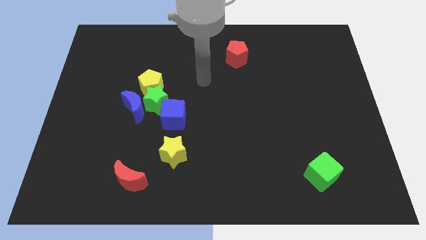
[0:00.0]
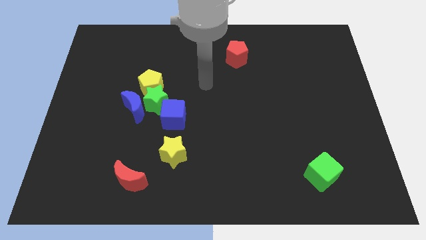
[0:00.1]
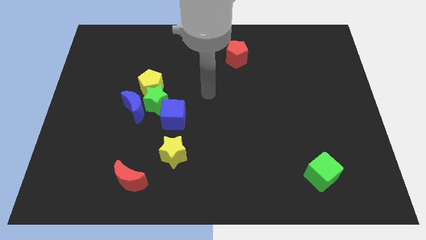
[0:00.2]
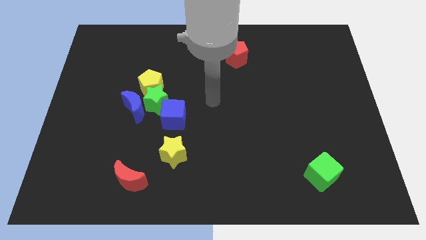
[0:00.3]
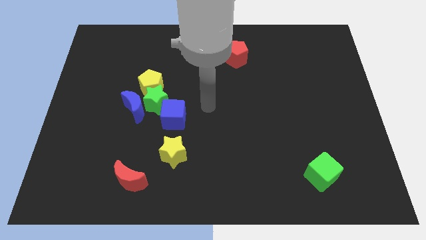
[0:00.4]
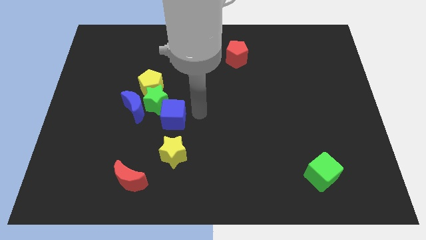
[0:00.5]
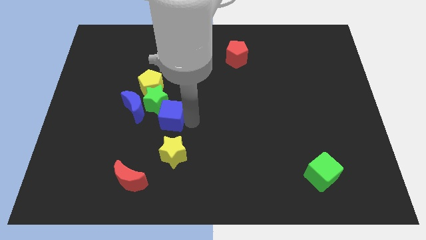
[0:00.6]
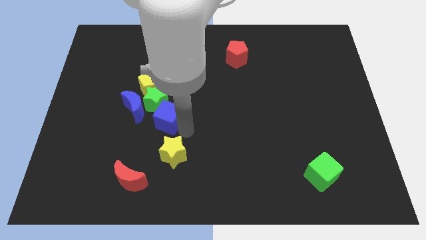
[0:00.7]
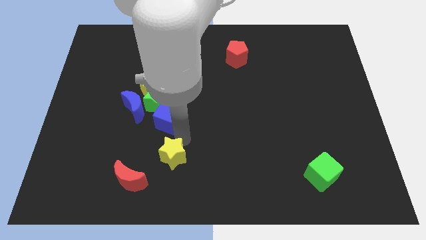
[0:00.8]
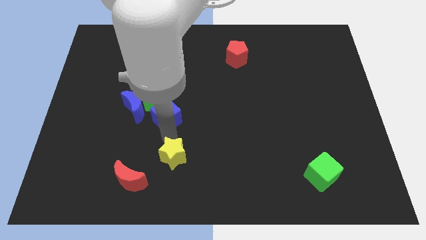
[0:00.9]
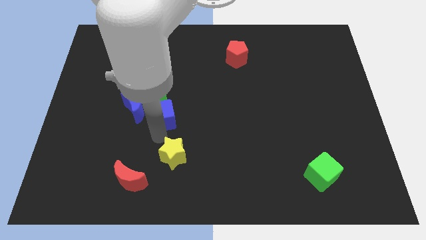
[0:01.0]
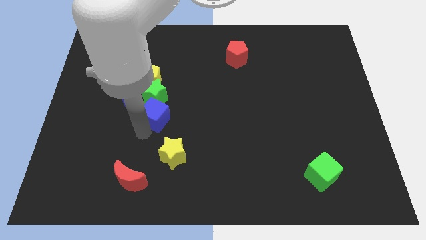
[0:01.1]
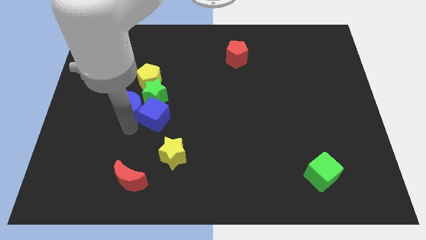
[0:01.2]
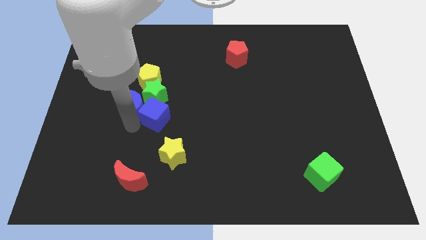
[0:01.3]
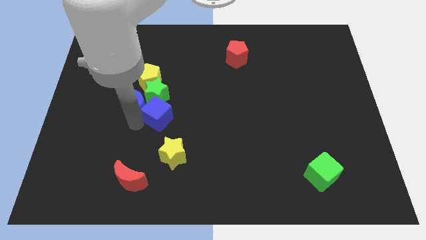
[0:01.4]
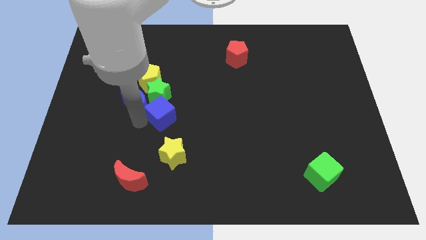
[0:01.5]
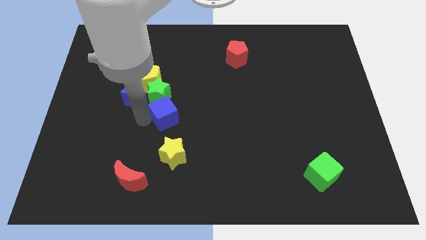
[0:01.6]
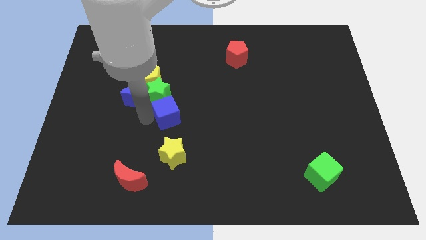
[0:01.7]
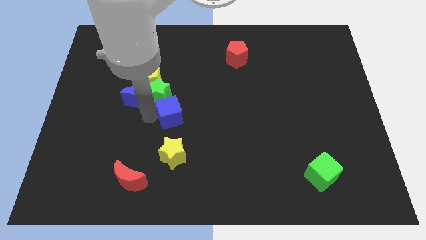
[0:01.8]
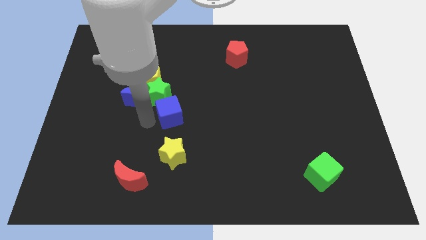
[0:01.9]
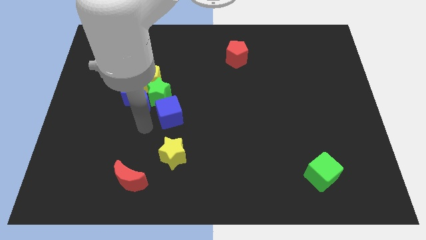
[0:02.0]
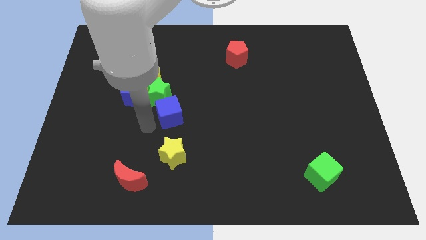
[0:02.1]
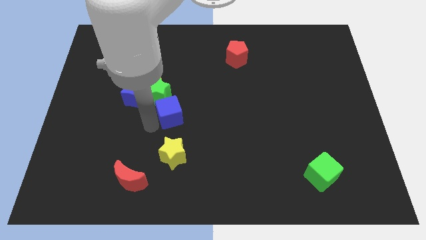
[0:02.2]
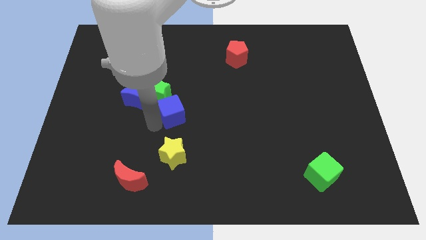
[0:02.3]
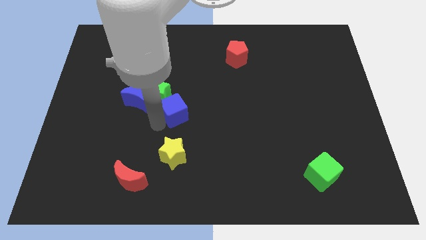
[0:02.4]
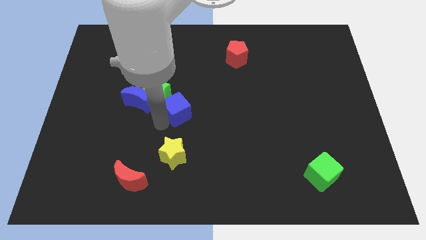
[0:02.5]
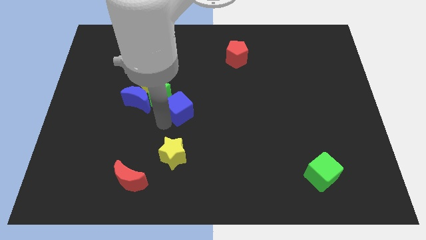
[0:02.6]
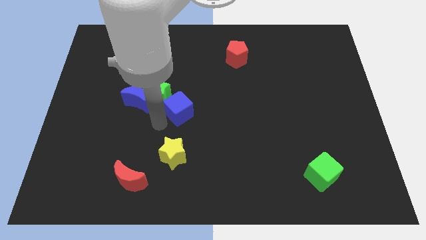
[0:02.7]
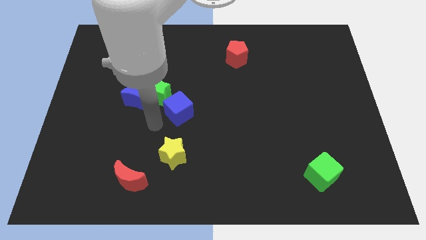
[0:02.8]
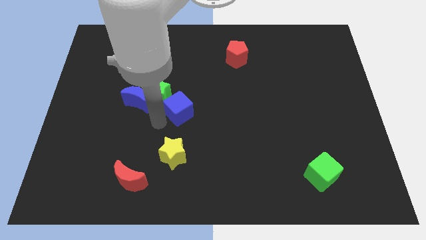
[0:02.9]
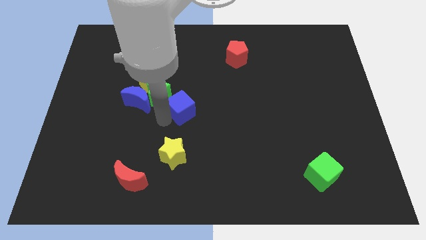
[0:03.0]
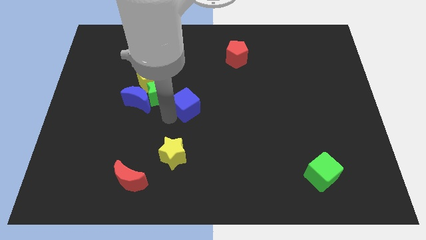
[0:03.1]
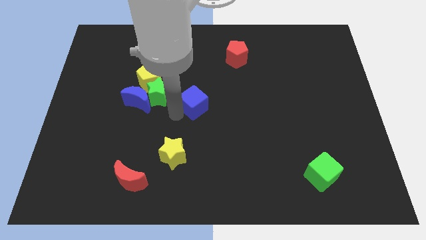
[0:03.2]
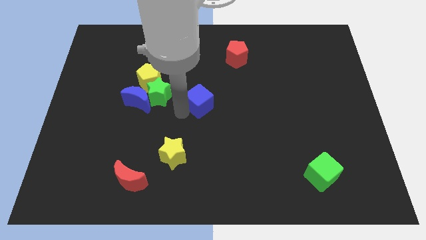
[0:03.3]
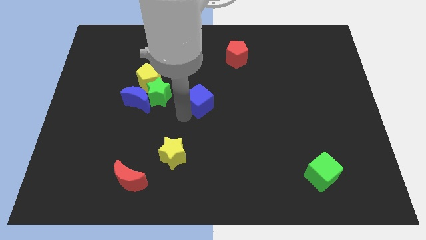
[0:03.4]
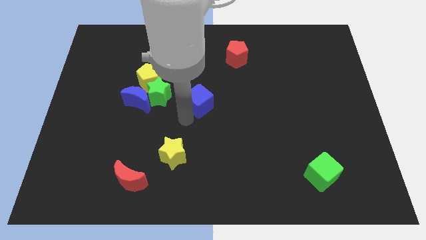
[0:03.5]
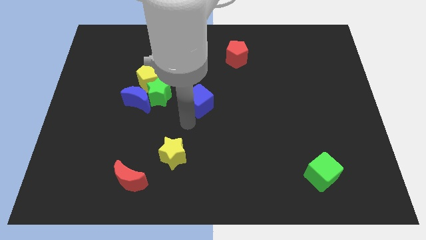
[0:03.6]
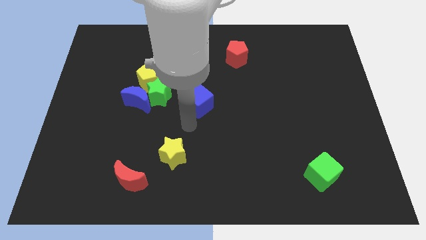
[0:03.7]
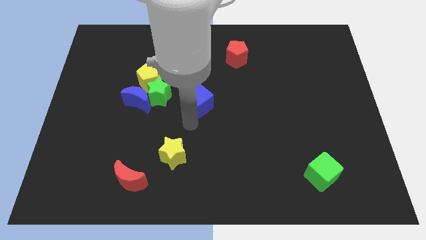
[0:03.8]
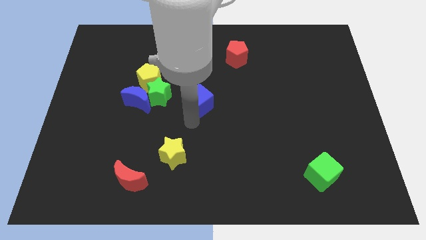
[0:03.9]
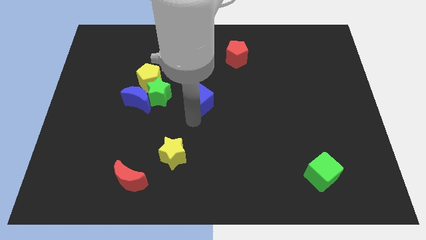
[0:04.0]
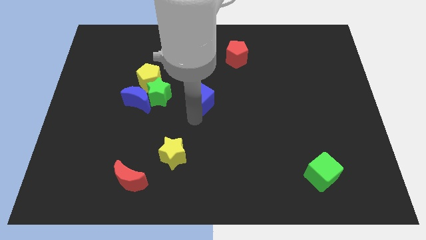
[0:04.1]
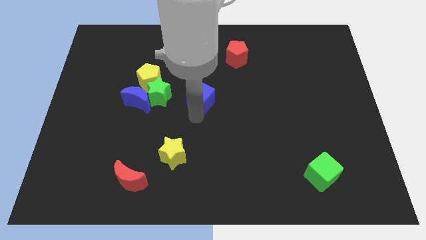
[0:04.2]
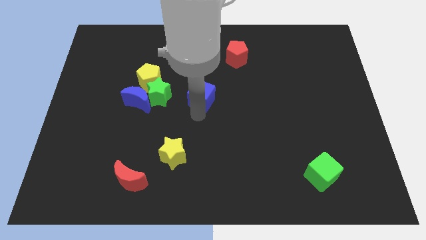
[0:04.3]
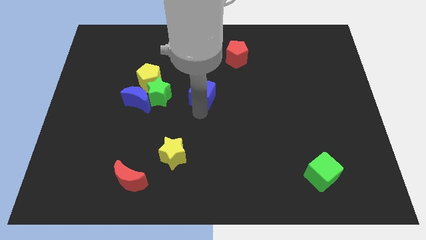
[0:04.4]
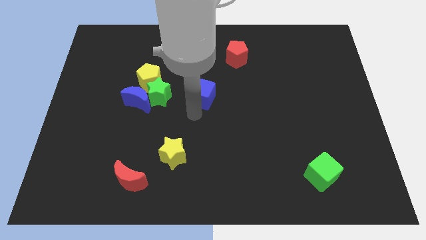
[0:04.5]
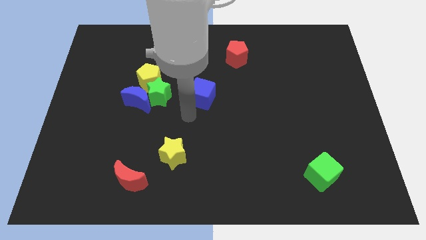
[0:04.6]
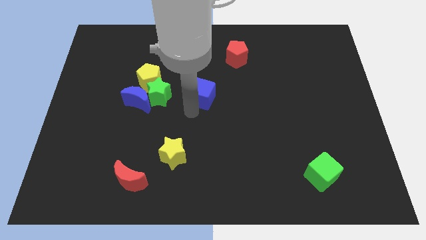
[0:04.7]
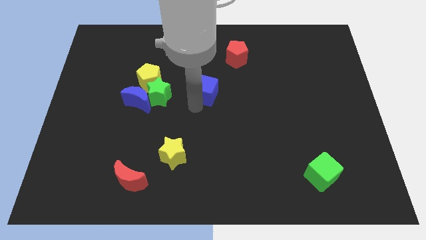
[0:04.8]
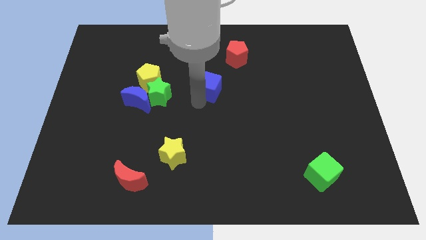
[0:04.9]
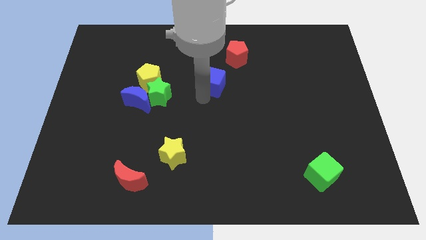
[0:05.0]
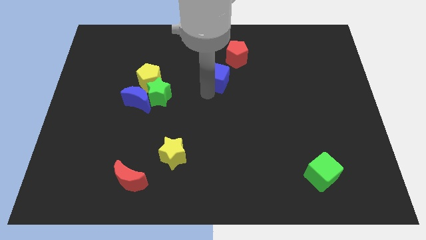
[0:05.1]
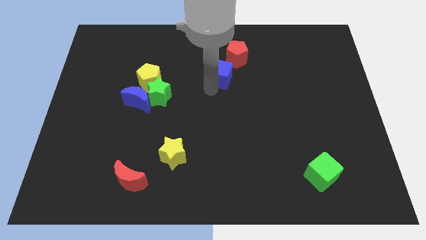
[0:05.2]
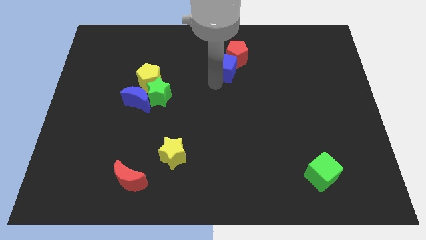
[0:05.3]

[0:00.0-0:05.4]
push the blue cube next to the red pentagon

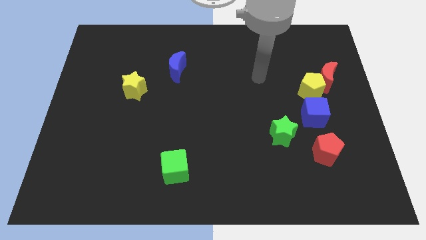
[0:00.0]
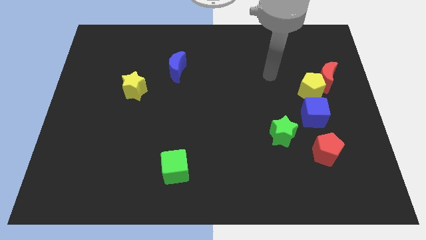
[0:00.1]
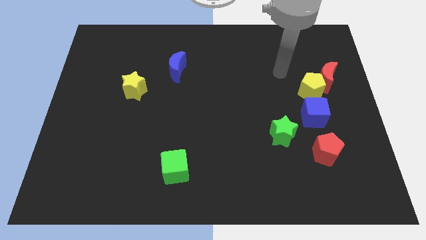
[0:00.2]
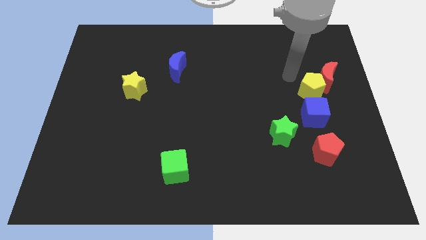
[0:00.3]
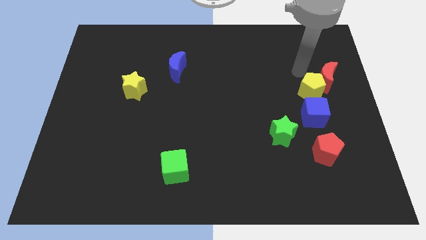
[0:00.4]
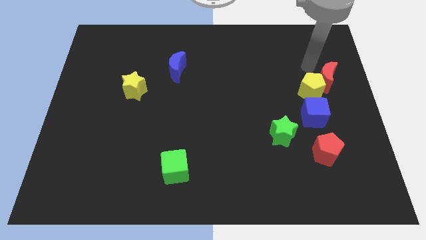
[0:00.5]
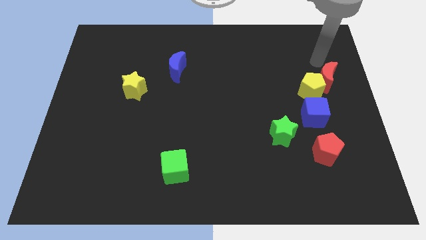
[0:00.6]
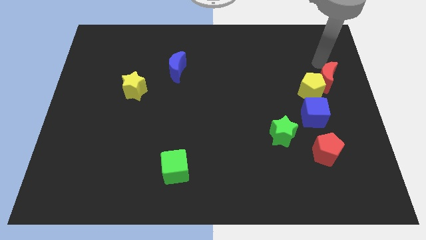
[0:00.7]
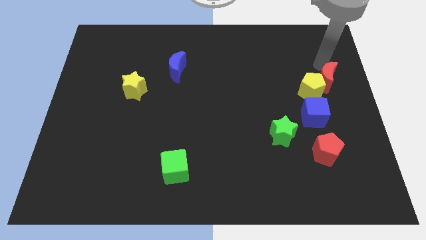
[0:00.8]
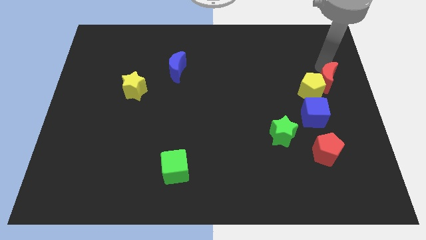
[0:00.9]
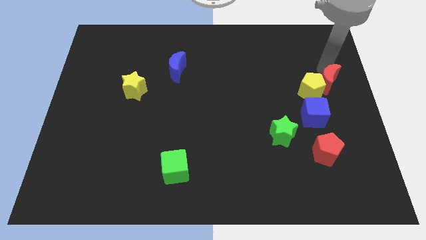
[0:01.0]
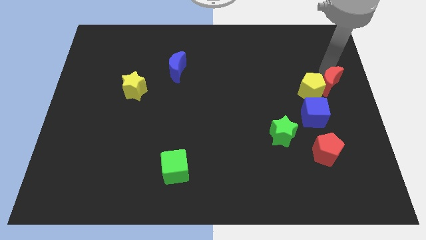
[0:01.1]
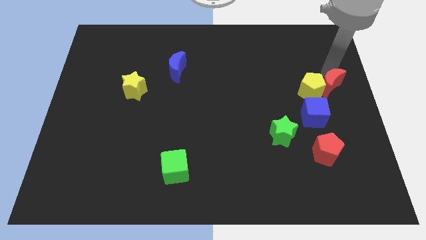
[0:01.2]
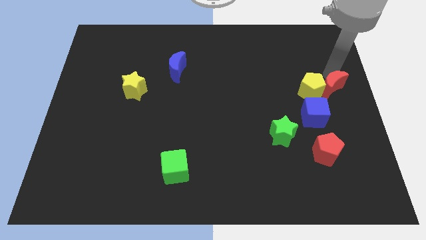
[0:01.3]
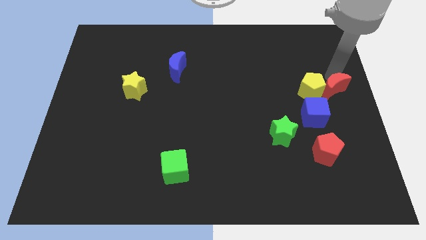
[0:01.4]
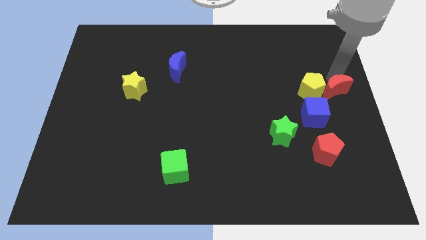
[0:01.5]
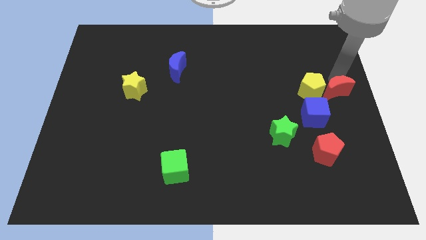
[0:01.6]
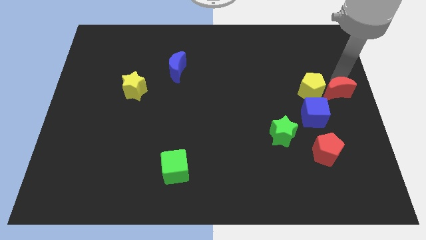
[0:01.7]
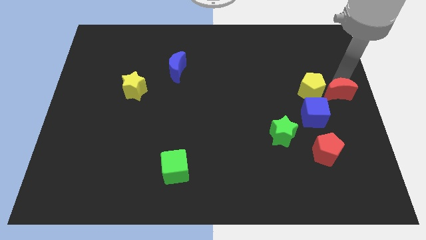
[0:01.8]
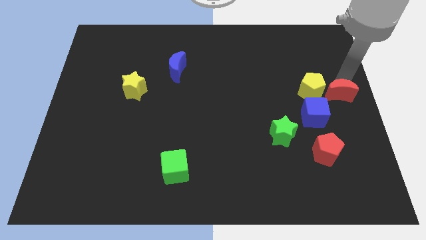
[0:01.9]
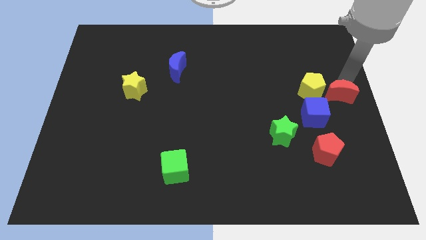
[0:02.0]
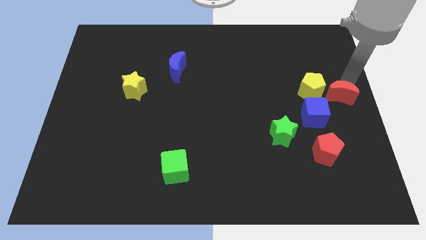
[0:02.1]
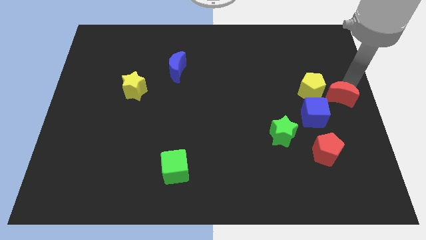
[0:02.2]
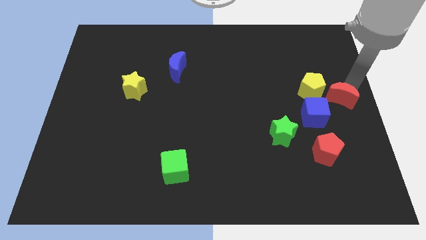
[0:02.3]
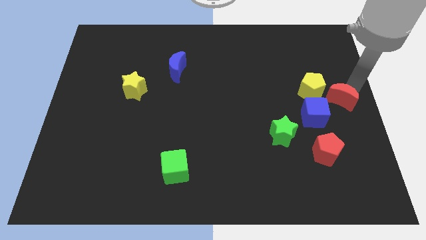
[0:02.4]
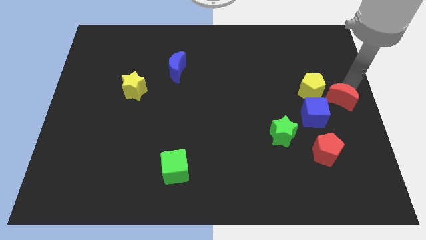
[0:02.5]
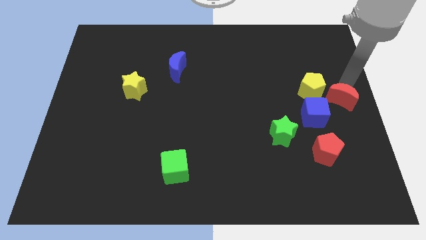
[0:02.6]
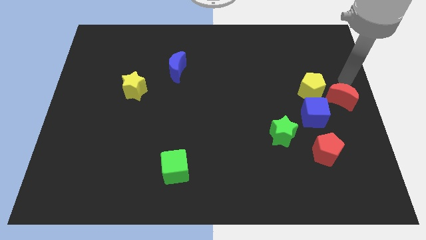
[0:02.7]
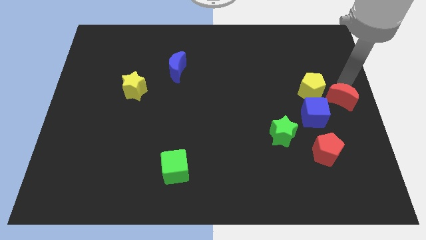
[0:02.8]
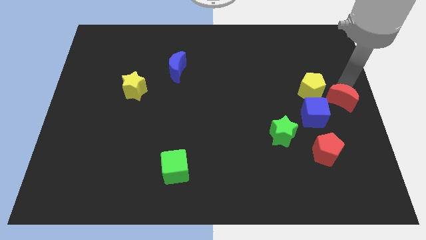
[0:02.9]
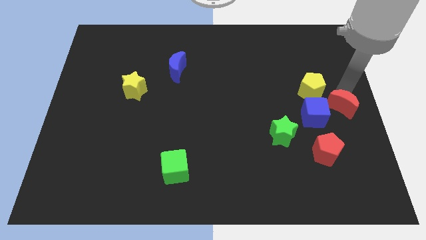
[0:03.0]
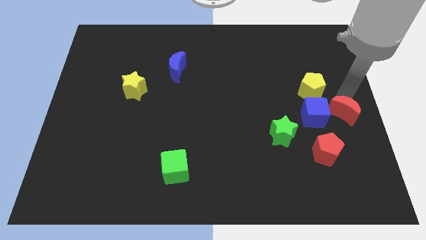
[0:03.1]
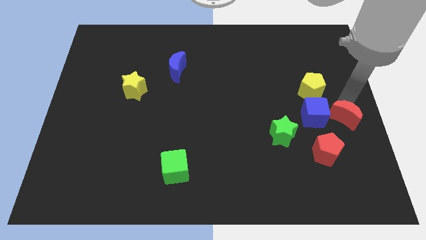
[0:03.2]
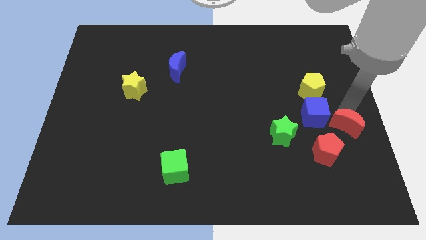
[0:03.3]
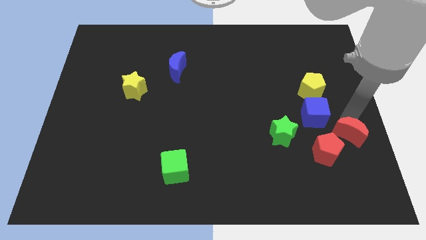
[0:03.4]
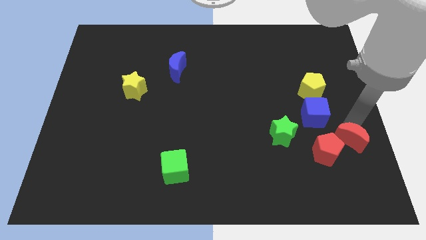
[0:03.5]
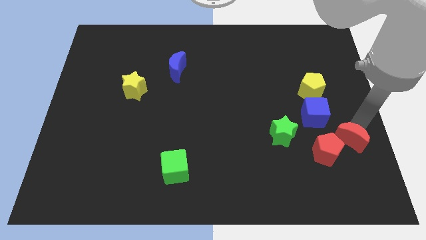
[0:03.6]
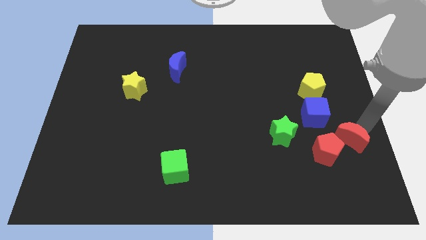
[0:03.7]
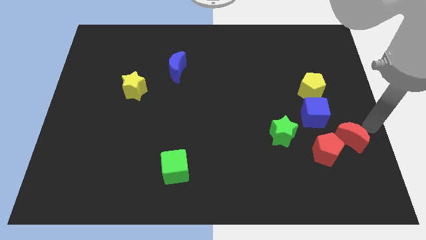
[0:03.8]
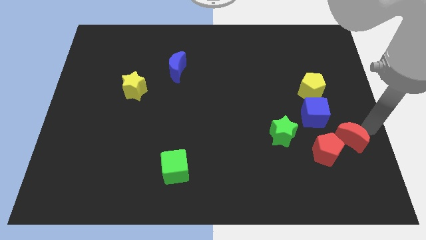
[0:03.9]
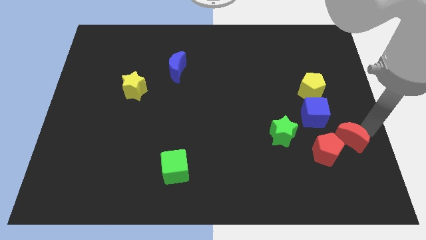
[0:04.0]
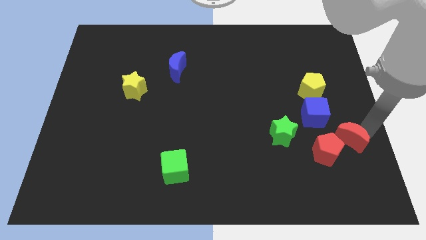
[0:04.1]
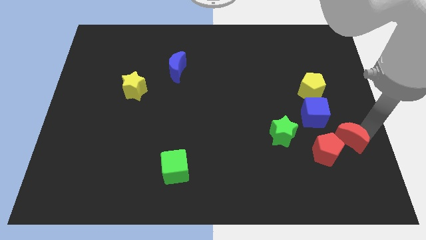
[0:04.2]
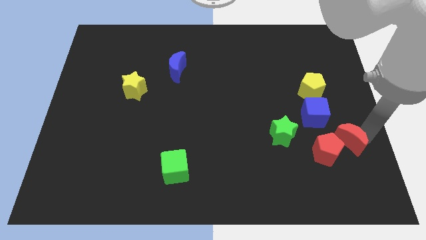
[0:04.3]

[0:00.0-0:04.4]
put the red moon towards the red pentagon
